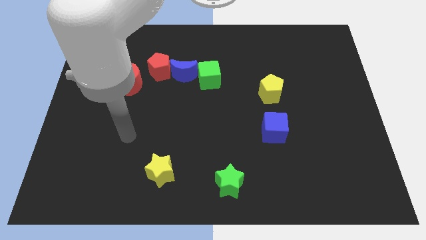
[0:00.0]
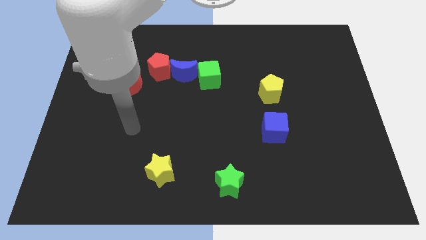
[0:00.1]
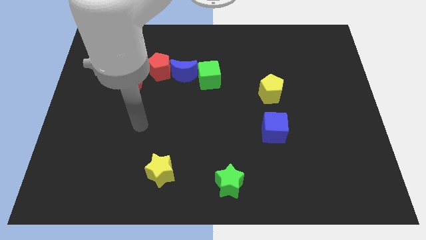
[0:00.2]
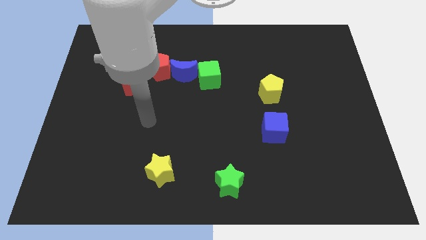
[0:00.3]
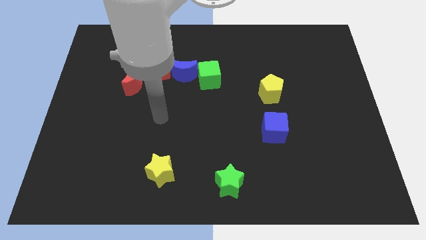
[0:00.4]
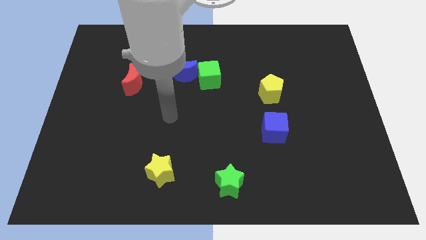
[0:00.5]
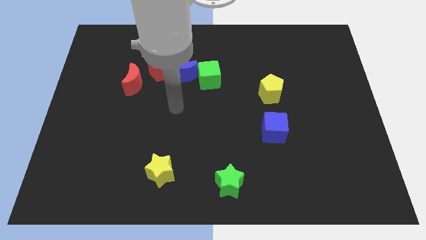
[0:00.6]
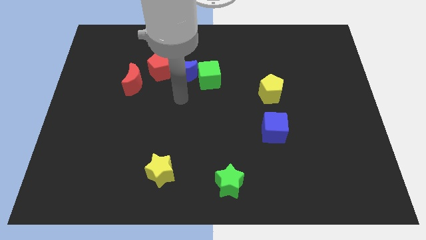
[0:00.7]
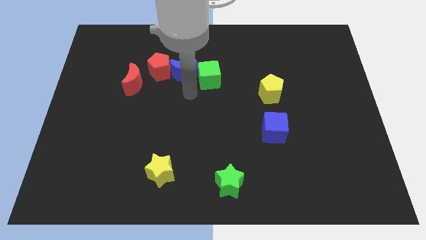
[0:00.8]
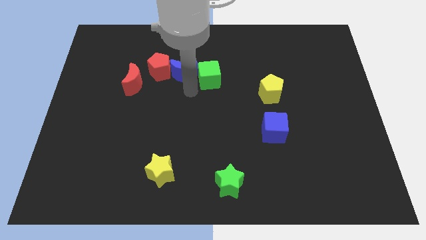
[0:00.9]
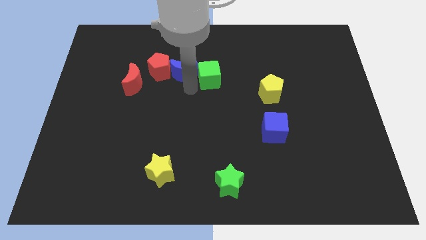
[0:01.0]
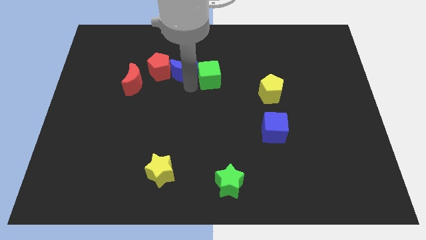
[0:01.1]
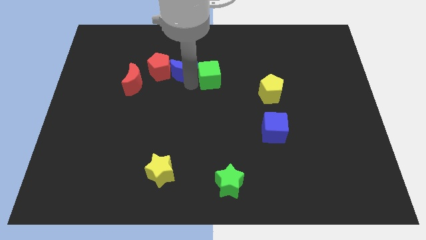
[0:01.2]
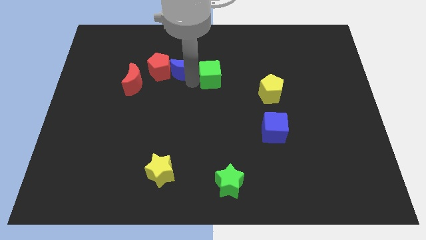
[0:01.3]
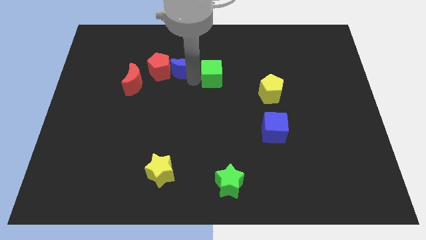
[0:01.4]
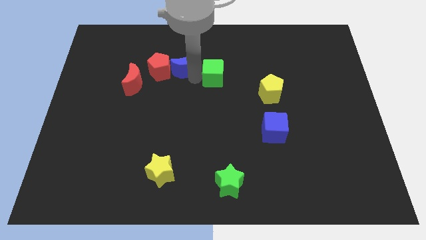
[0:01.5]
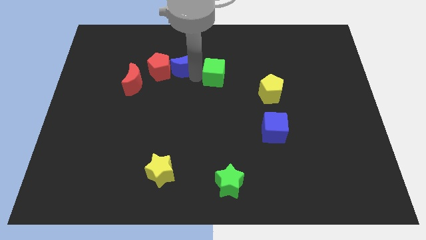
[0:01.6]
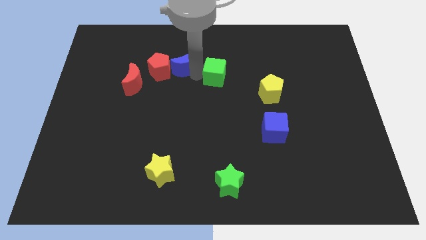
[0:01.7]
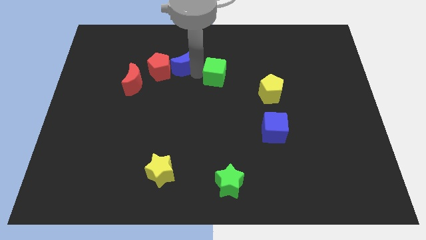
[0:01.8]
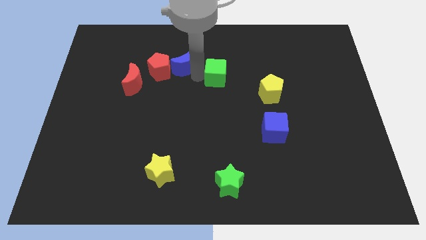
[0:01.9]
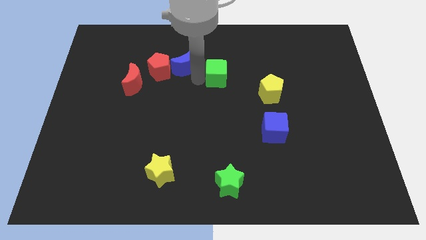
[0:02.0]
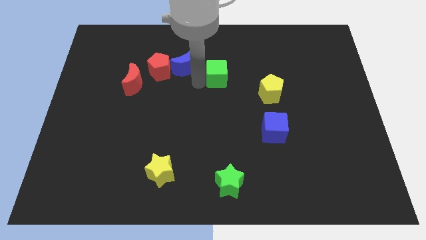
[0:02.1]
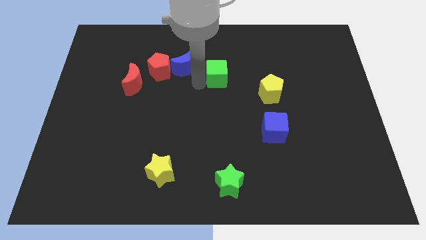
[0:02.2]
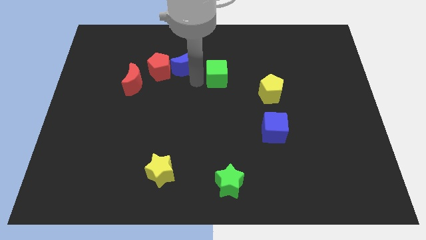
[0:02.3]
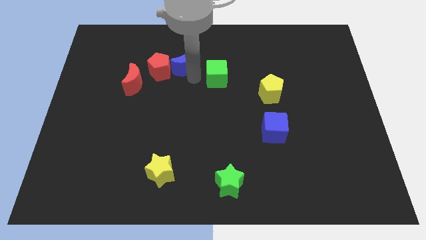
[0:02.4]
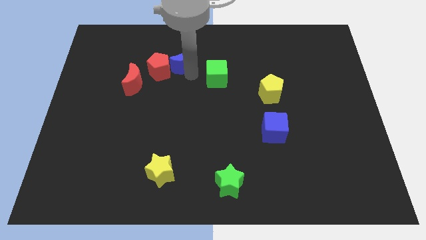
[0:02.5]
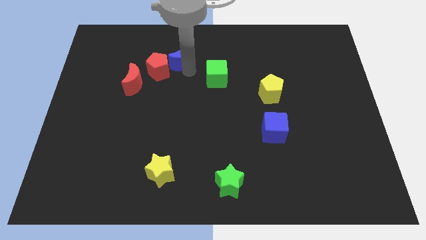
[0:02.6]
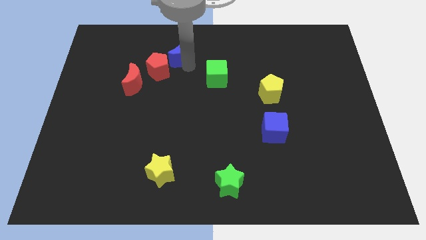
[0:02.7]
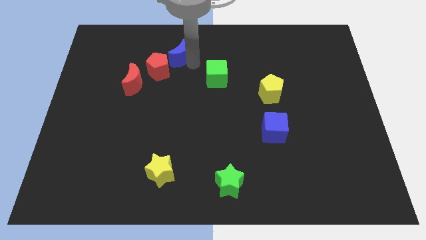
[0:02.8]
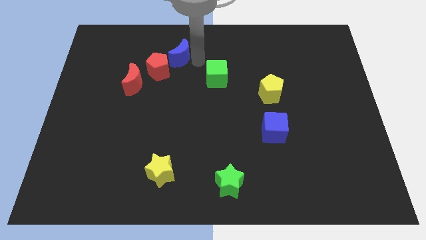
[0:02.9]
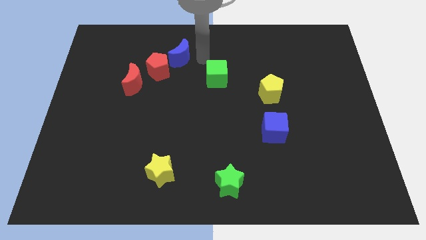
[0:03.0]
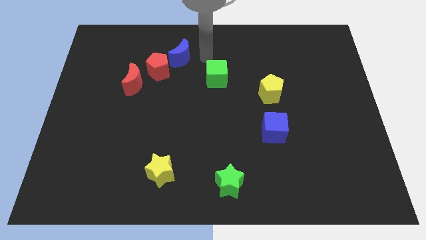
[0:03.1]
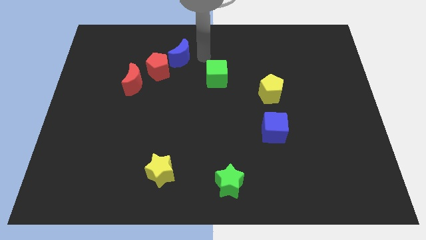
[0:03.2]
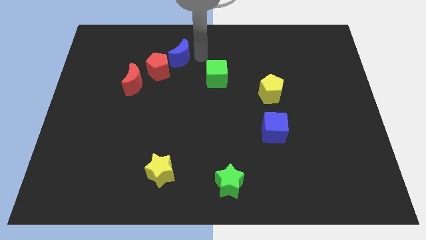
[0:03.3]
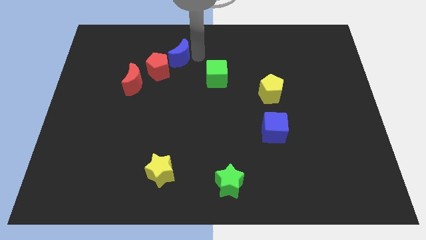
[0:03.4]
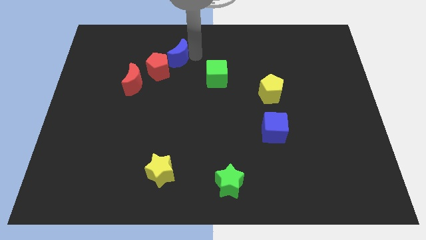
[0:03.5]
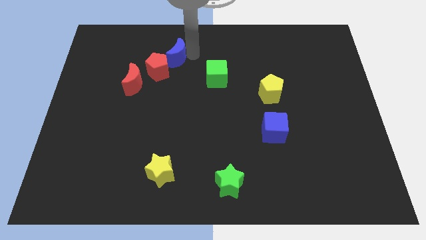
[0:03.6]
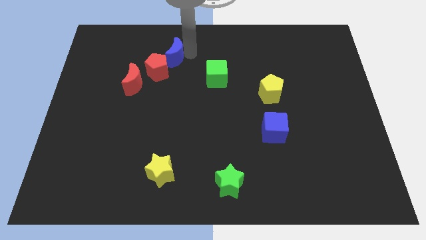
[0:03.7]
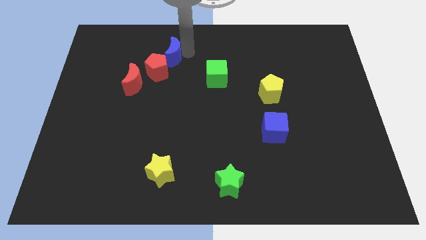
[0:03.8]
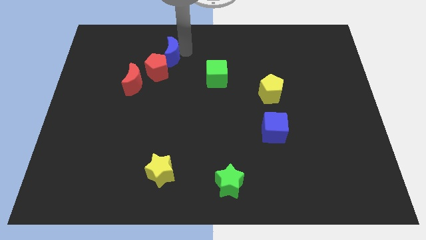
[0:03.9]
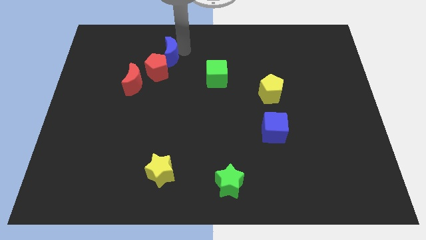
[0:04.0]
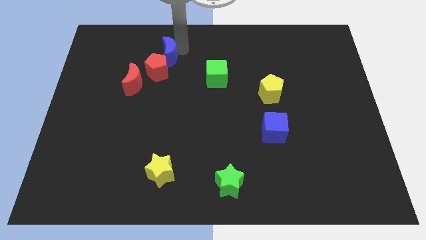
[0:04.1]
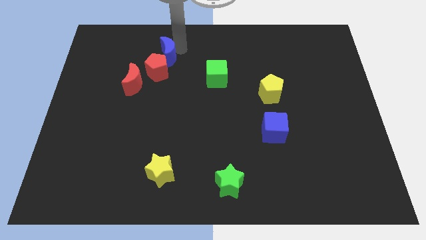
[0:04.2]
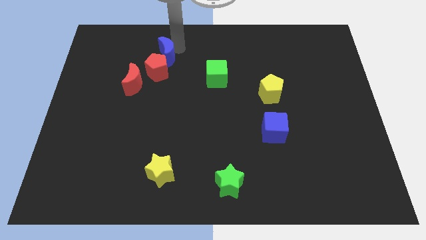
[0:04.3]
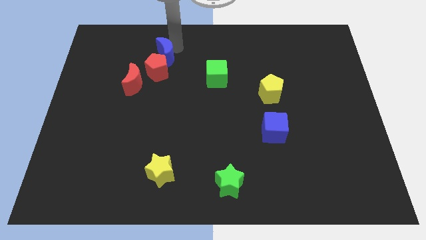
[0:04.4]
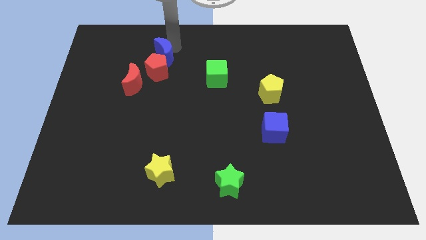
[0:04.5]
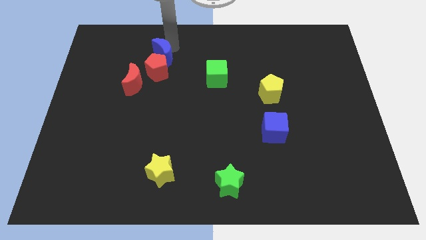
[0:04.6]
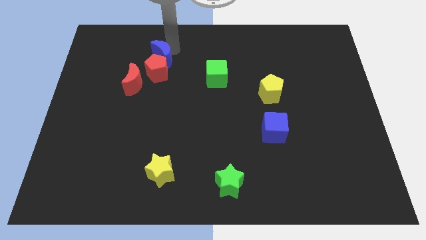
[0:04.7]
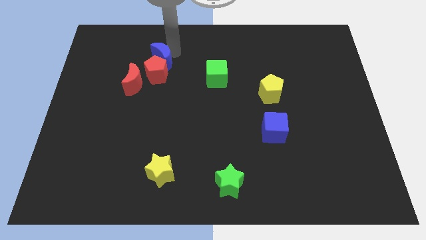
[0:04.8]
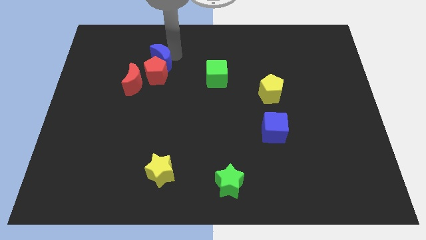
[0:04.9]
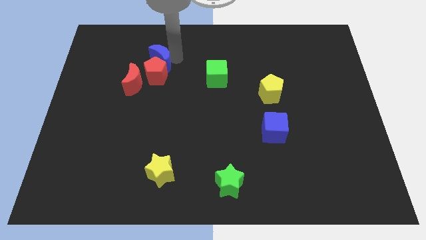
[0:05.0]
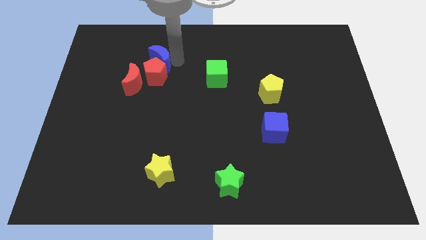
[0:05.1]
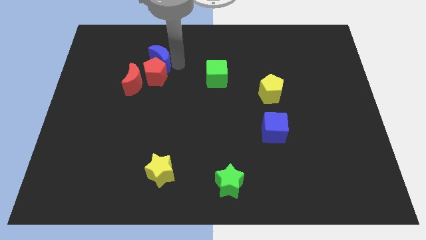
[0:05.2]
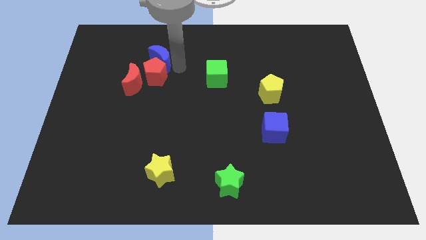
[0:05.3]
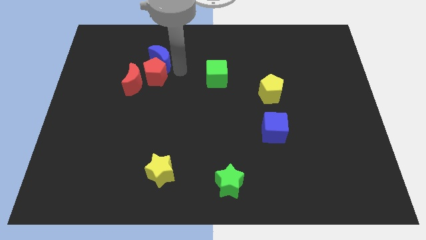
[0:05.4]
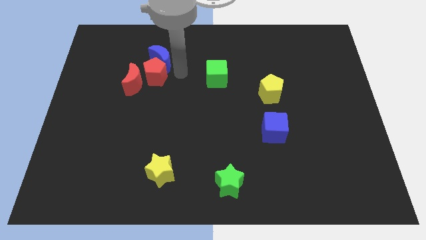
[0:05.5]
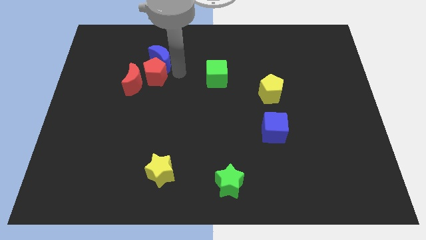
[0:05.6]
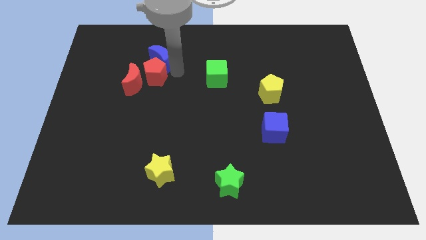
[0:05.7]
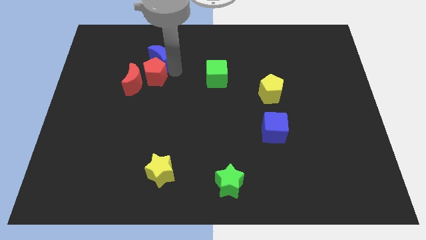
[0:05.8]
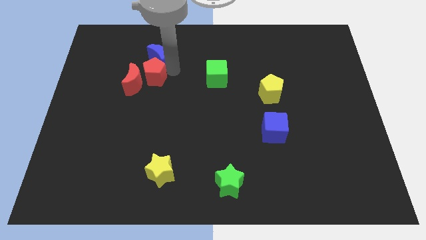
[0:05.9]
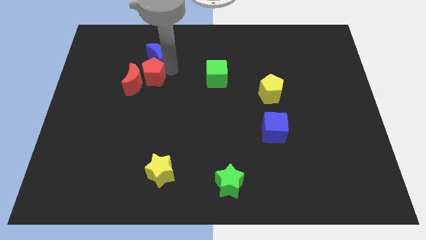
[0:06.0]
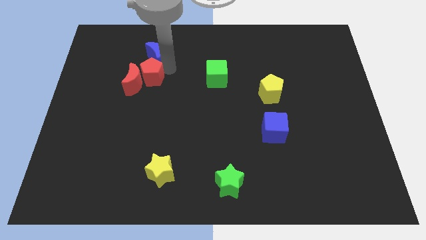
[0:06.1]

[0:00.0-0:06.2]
separate the blue moon from the red pentagon and green cube

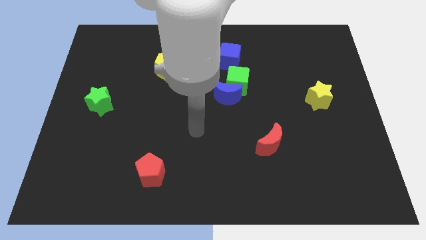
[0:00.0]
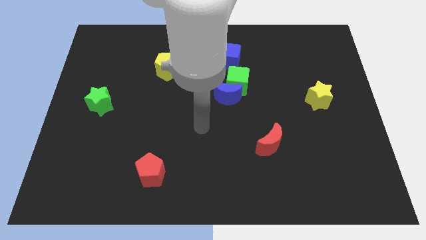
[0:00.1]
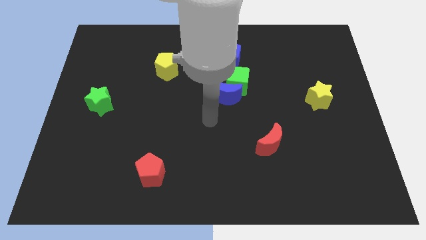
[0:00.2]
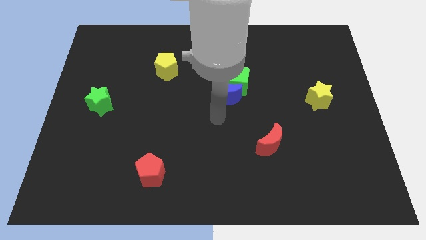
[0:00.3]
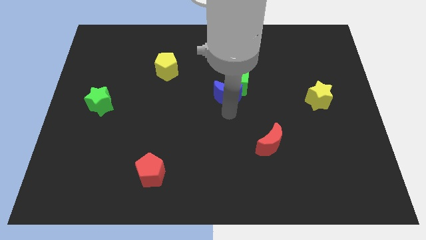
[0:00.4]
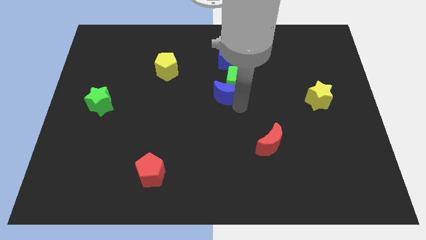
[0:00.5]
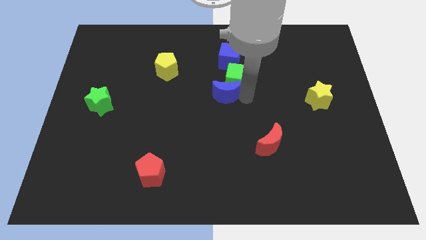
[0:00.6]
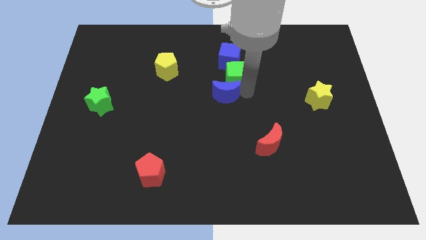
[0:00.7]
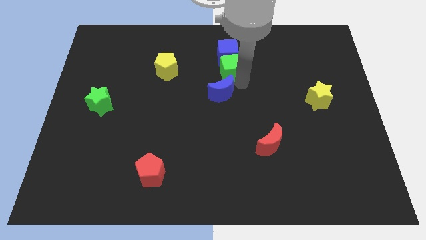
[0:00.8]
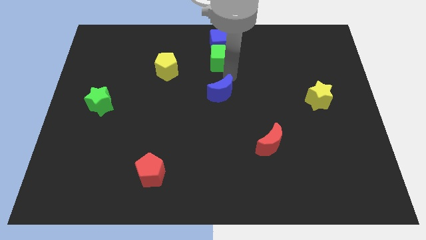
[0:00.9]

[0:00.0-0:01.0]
separate the blue moon from the green cube

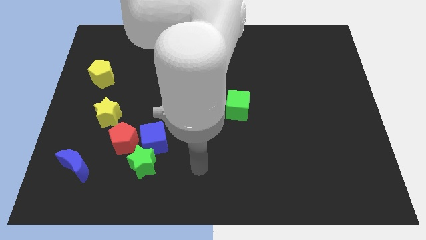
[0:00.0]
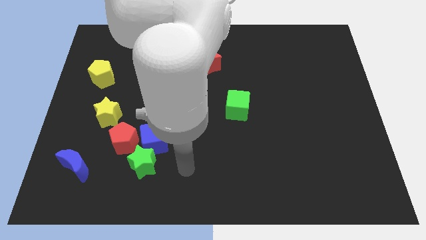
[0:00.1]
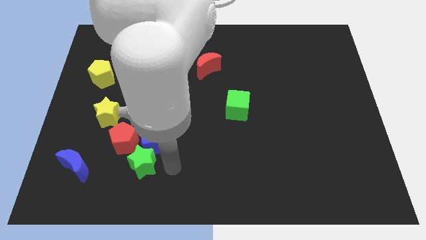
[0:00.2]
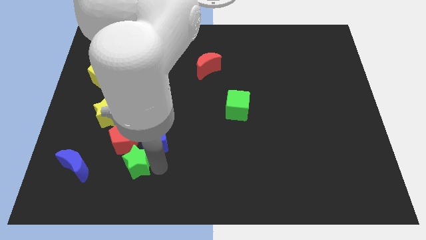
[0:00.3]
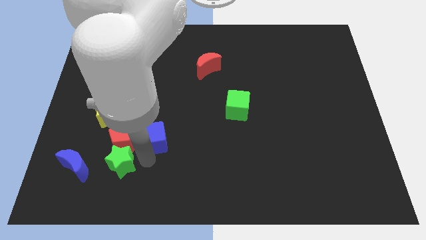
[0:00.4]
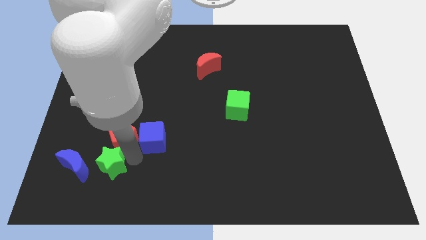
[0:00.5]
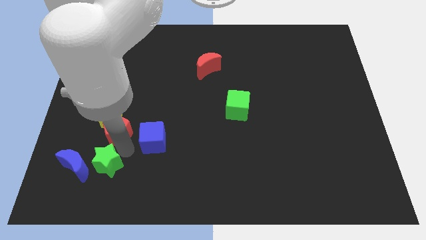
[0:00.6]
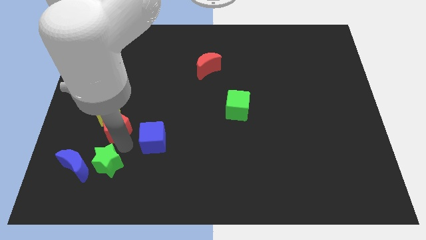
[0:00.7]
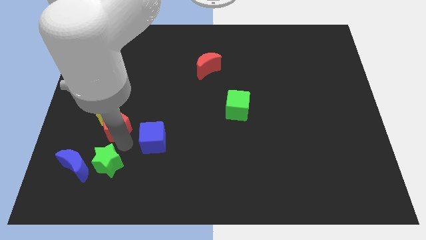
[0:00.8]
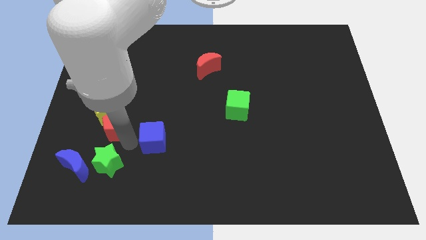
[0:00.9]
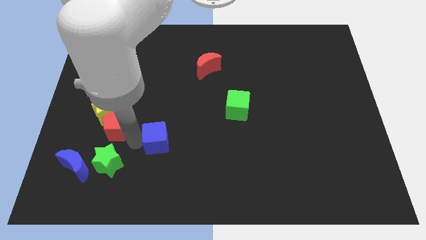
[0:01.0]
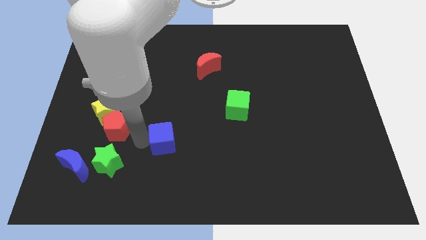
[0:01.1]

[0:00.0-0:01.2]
move the blue cube away from the green star and red pentagon

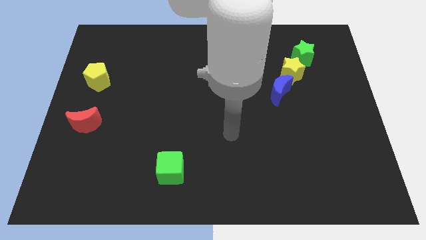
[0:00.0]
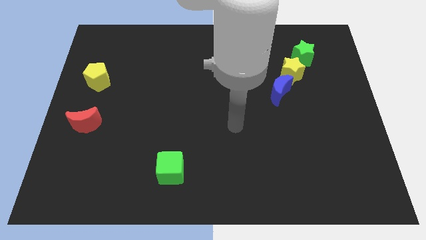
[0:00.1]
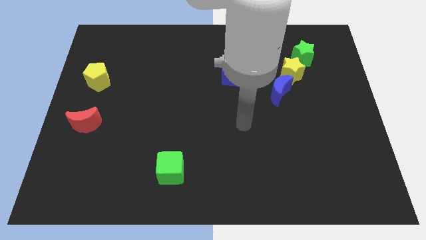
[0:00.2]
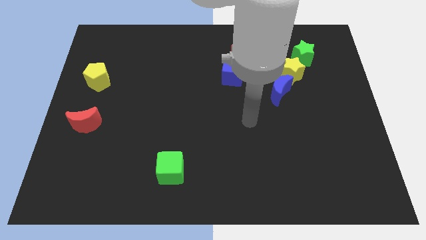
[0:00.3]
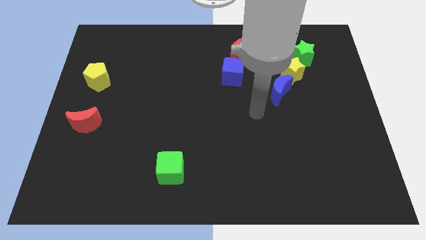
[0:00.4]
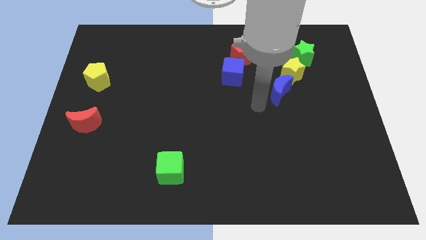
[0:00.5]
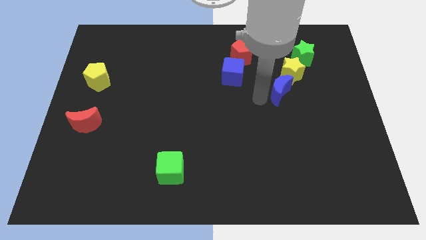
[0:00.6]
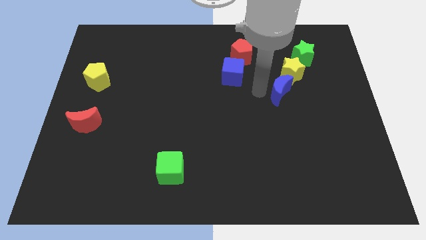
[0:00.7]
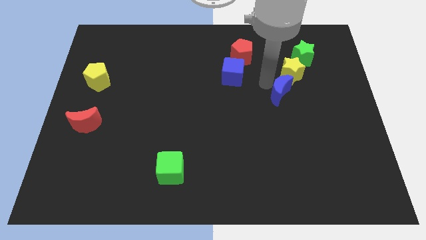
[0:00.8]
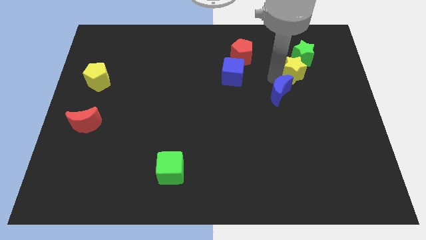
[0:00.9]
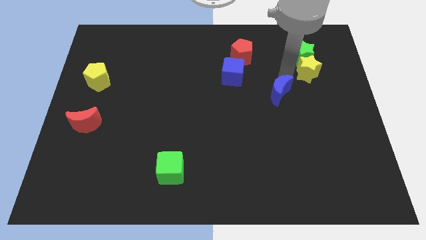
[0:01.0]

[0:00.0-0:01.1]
pull the blue moon apart from the yellow star
